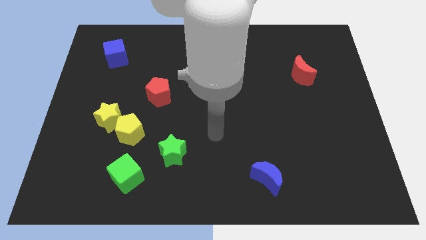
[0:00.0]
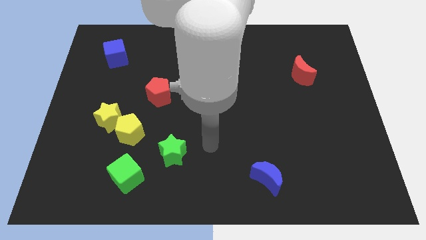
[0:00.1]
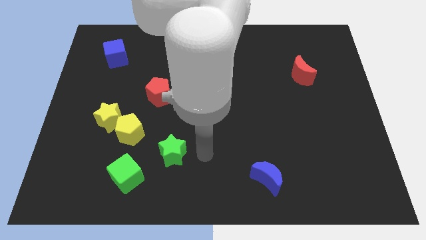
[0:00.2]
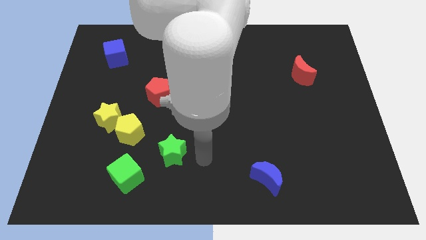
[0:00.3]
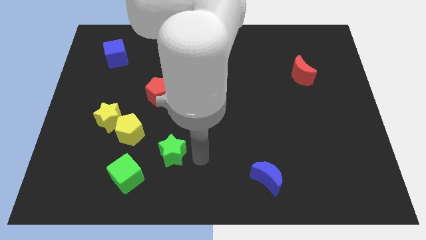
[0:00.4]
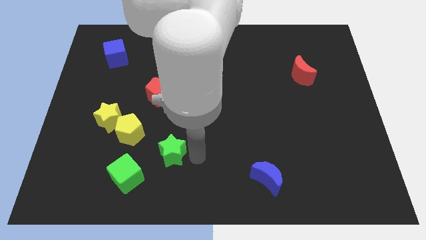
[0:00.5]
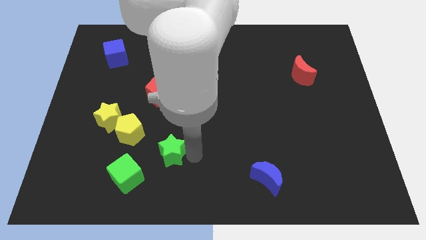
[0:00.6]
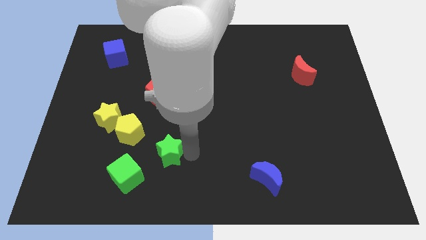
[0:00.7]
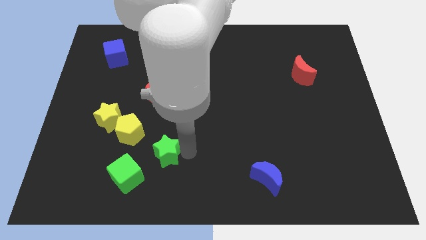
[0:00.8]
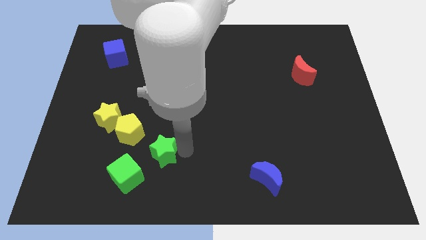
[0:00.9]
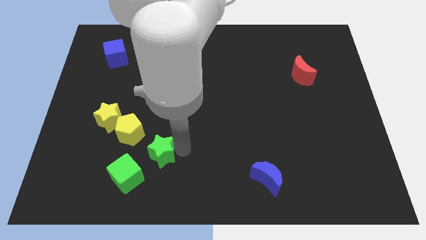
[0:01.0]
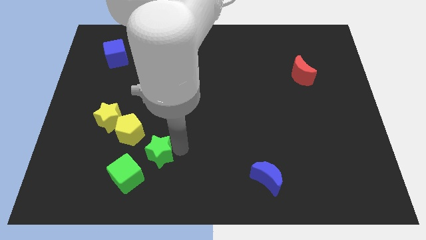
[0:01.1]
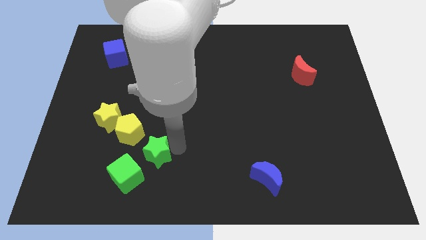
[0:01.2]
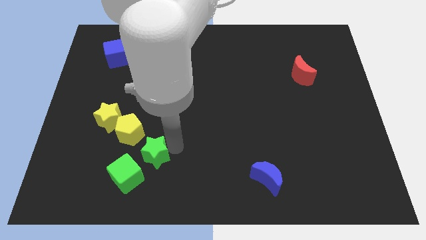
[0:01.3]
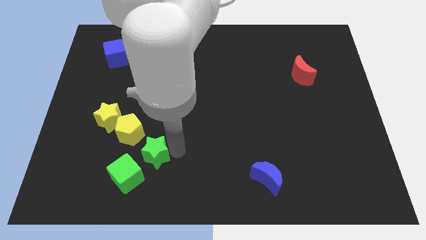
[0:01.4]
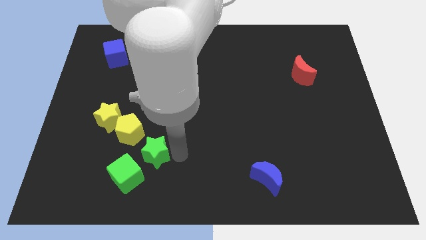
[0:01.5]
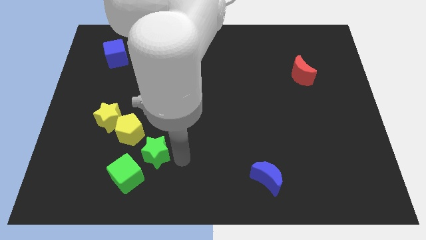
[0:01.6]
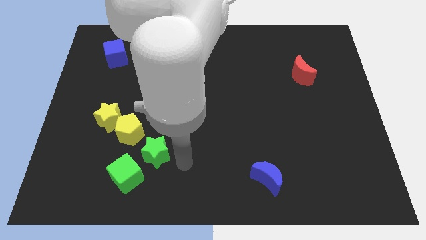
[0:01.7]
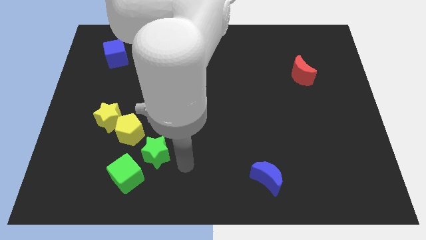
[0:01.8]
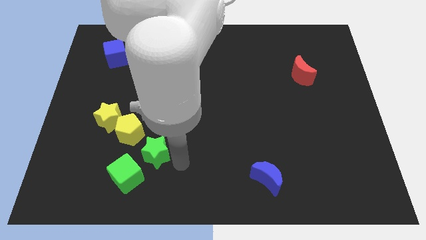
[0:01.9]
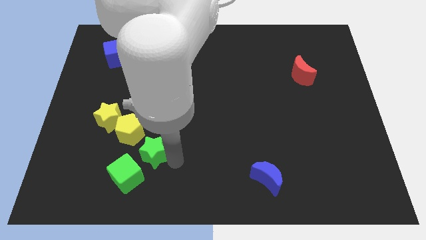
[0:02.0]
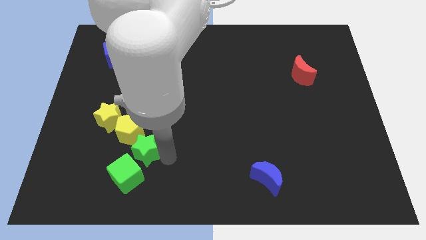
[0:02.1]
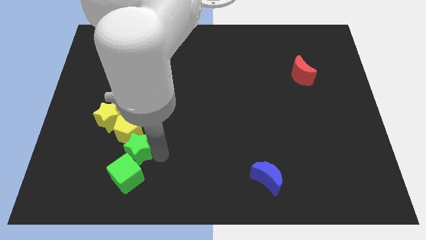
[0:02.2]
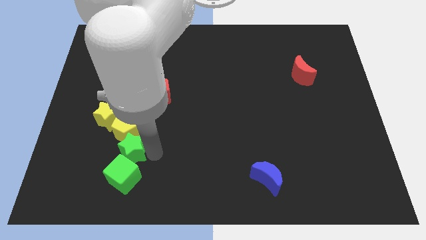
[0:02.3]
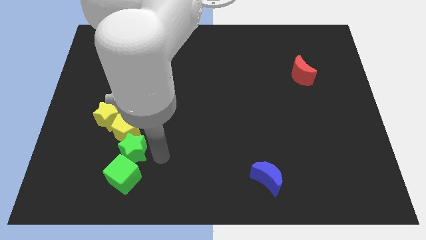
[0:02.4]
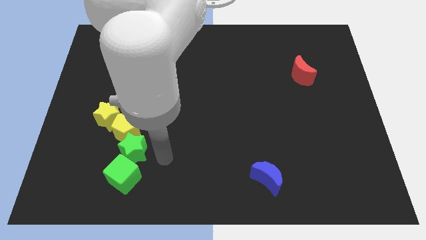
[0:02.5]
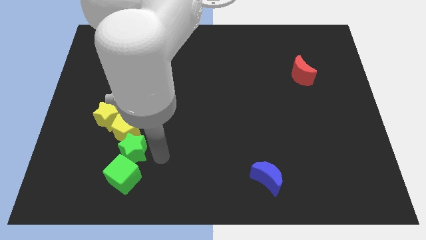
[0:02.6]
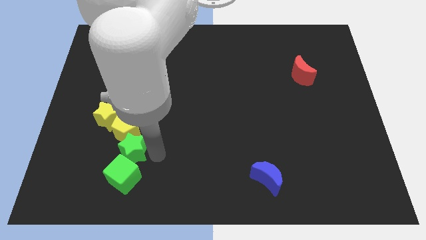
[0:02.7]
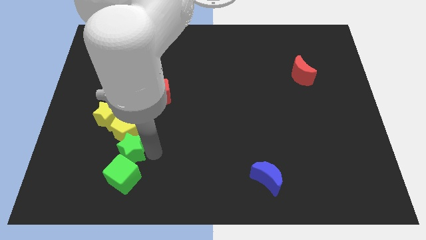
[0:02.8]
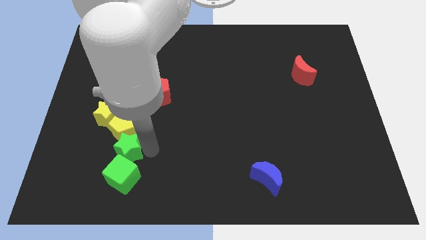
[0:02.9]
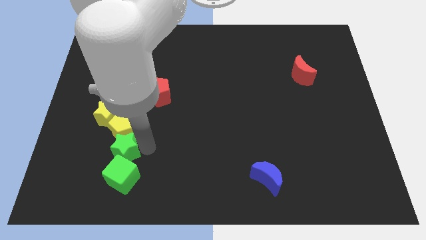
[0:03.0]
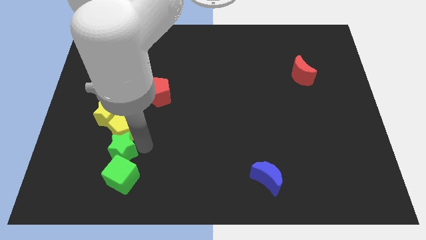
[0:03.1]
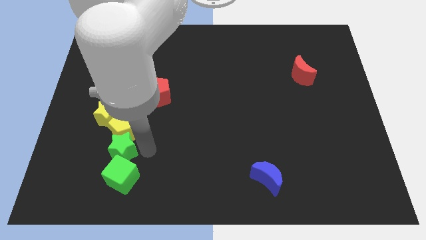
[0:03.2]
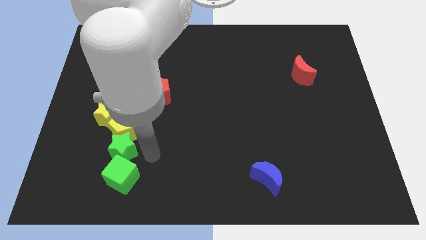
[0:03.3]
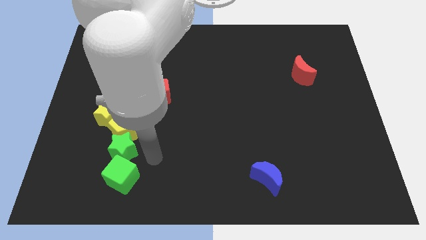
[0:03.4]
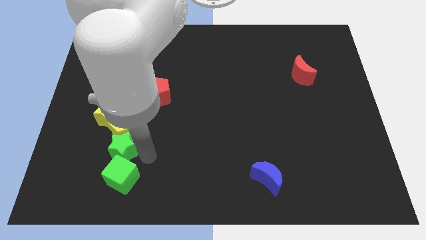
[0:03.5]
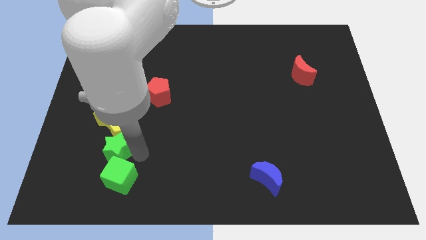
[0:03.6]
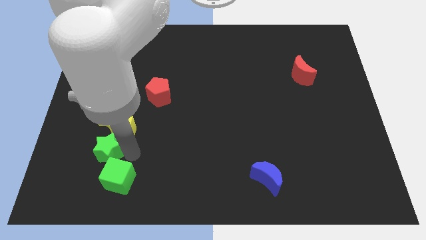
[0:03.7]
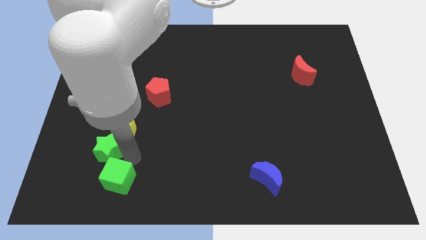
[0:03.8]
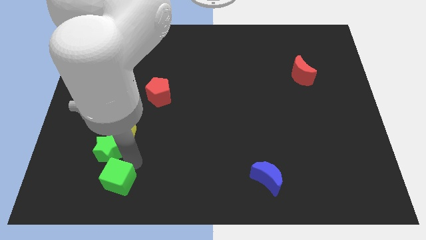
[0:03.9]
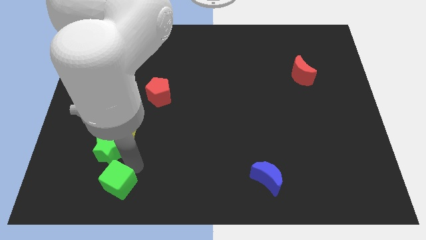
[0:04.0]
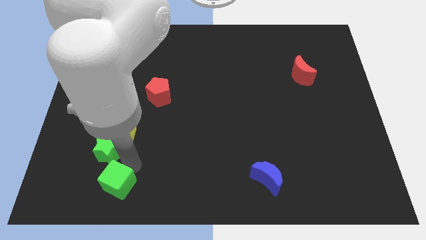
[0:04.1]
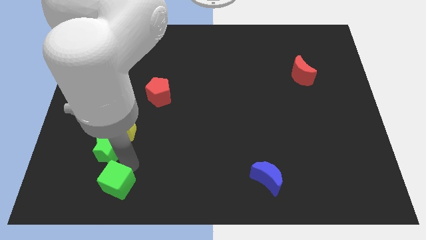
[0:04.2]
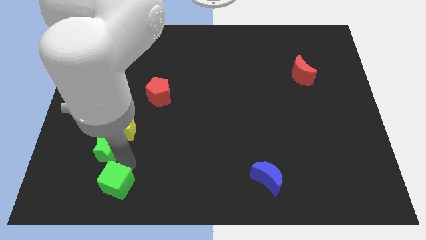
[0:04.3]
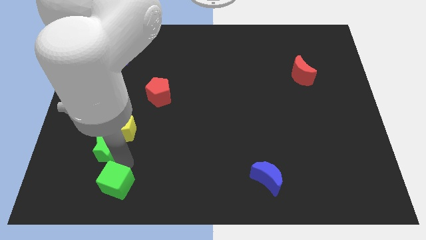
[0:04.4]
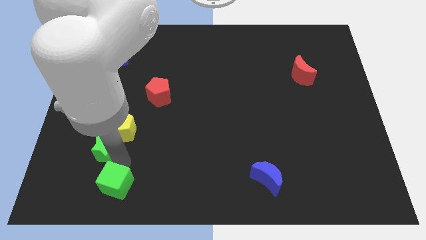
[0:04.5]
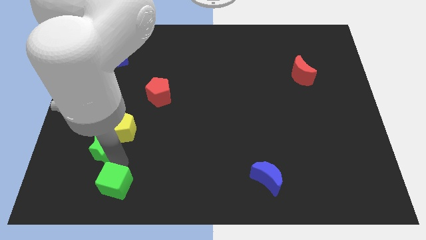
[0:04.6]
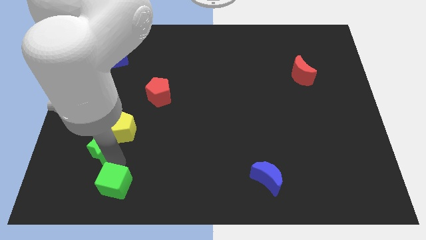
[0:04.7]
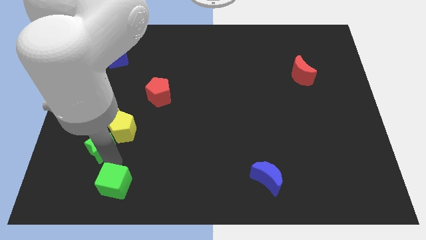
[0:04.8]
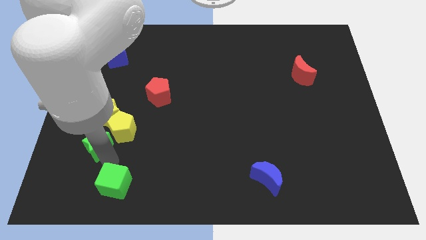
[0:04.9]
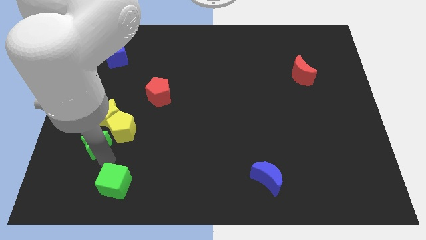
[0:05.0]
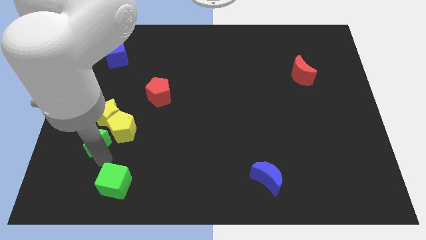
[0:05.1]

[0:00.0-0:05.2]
move the green star to the bottom left side of the yellow star

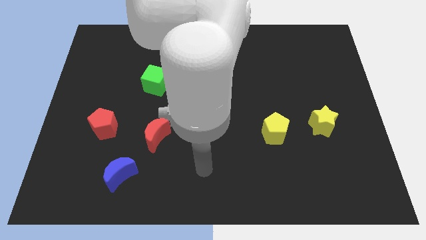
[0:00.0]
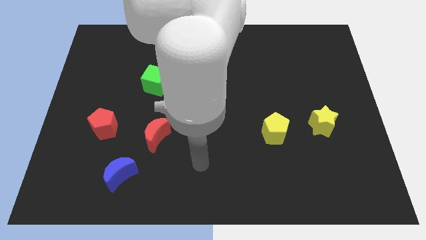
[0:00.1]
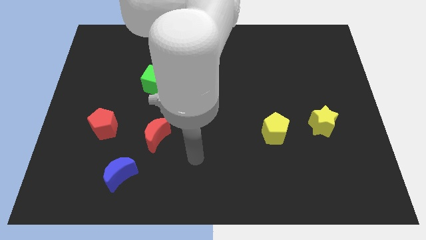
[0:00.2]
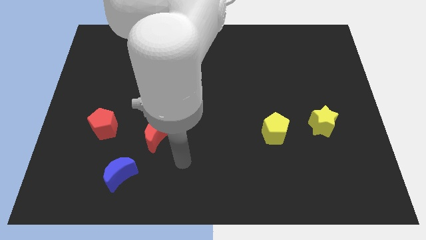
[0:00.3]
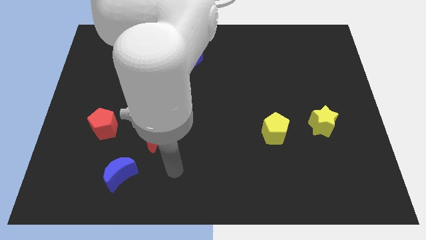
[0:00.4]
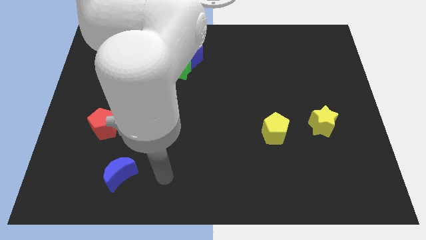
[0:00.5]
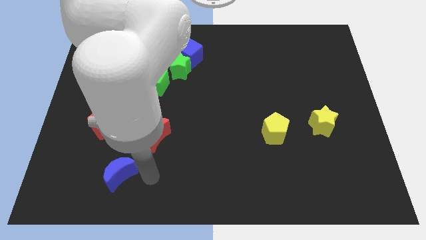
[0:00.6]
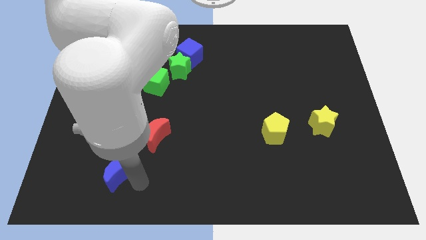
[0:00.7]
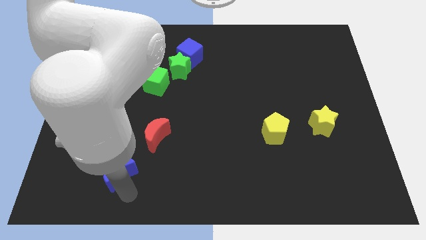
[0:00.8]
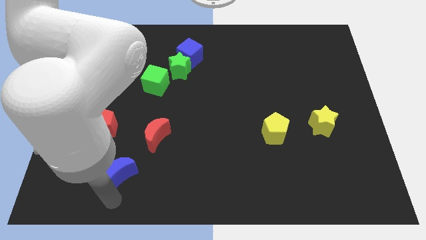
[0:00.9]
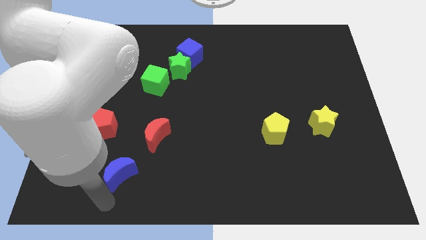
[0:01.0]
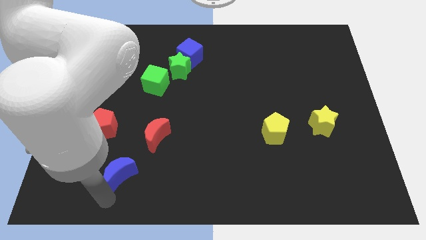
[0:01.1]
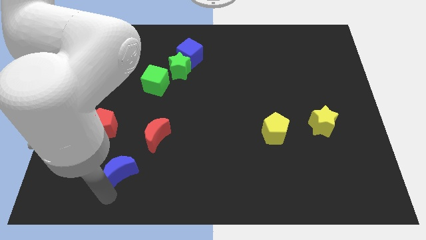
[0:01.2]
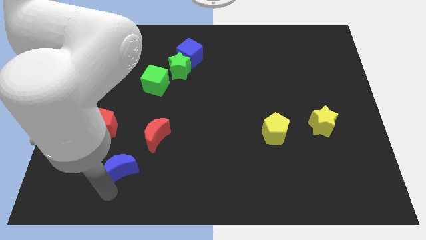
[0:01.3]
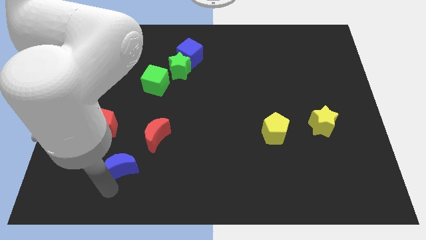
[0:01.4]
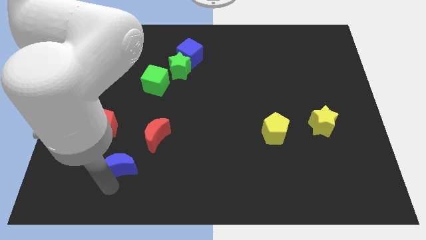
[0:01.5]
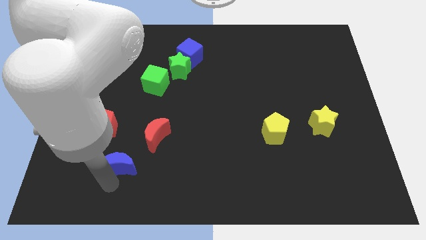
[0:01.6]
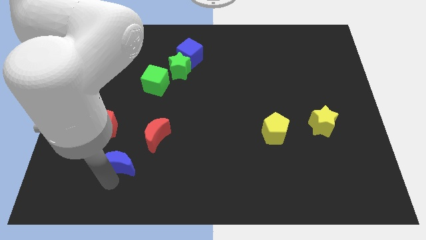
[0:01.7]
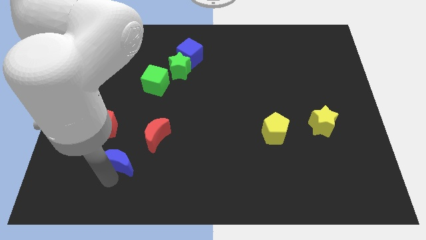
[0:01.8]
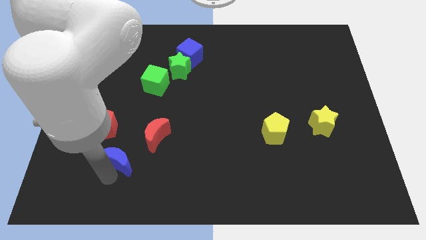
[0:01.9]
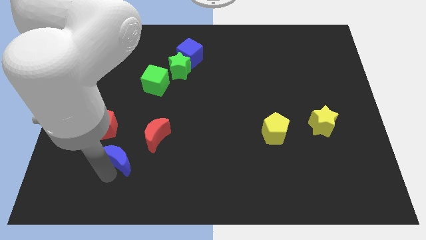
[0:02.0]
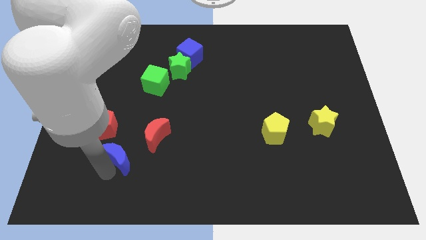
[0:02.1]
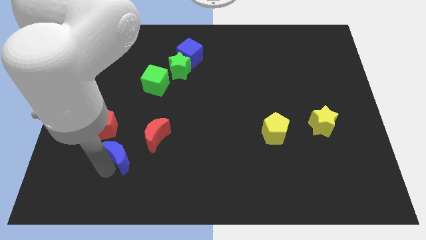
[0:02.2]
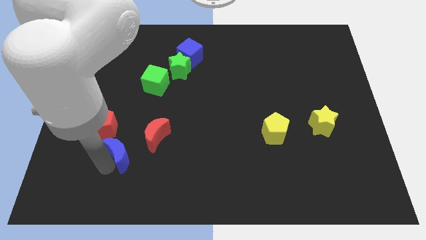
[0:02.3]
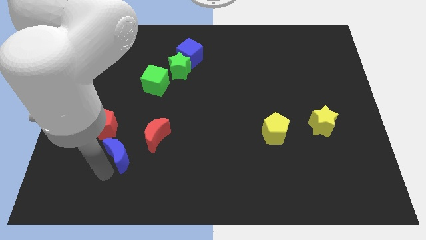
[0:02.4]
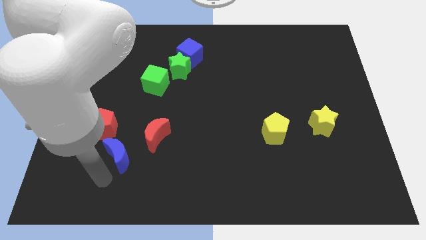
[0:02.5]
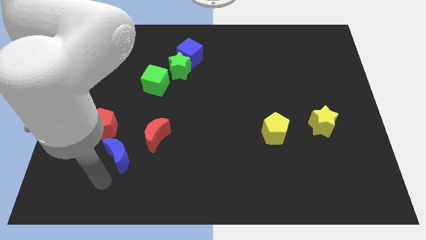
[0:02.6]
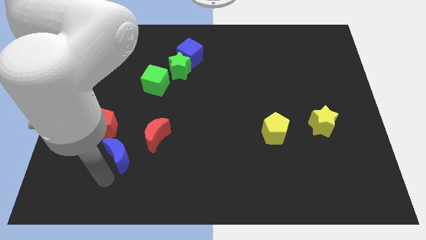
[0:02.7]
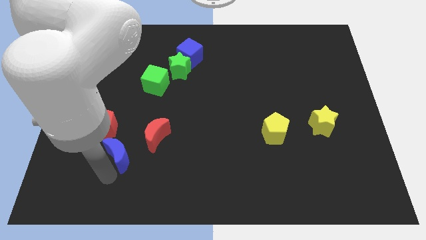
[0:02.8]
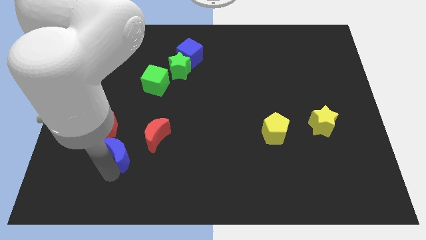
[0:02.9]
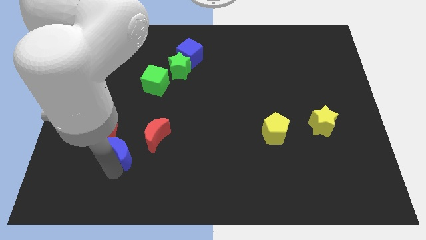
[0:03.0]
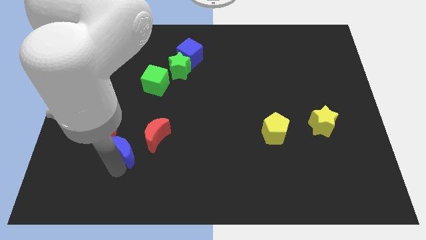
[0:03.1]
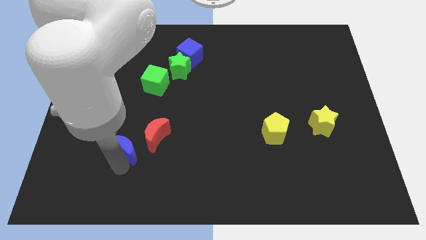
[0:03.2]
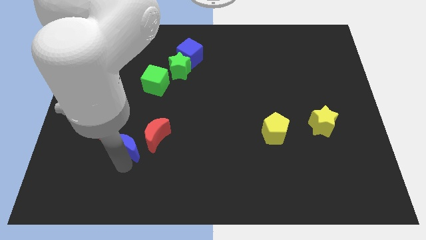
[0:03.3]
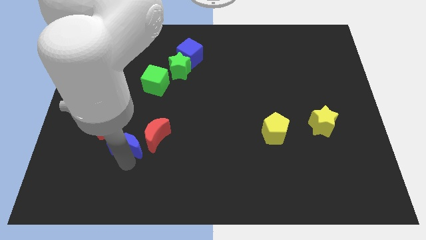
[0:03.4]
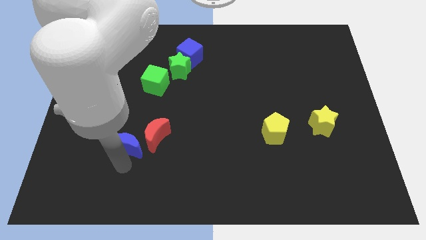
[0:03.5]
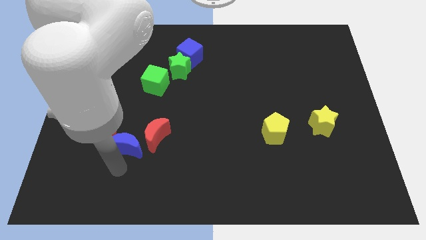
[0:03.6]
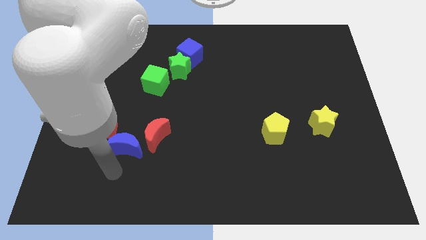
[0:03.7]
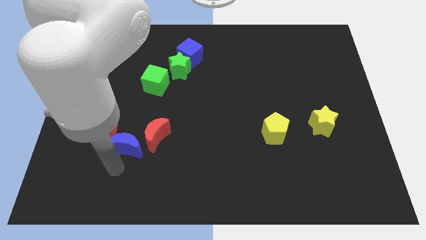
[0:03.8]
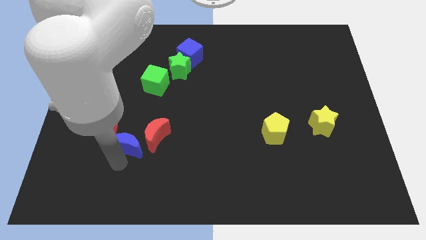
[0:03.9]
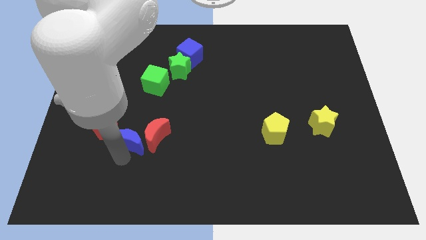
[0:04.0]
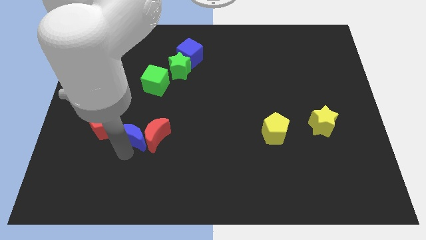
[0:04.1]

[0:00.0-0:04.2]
move the blue moon to the top left of the red moon
